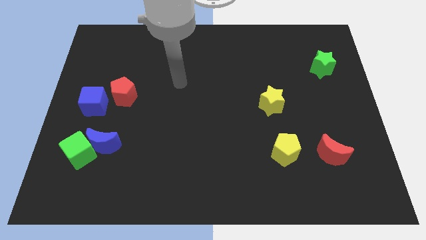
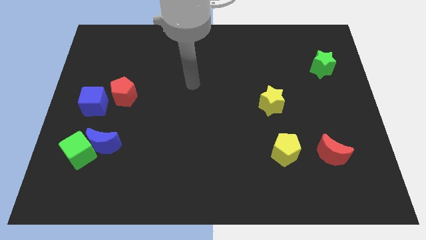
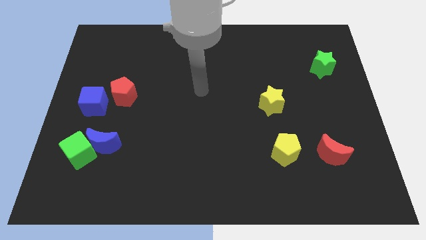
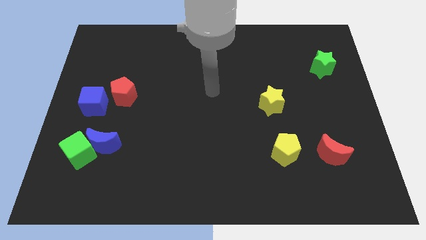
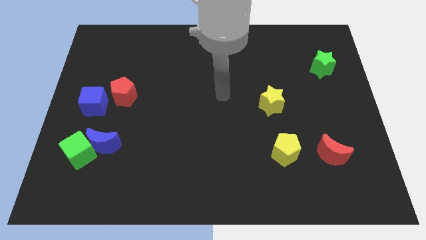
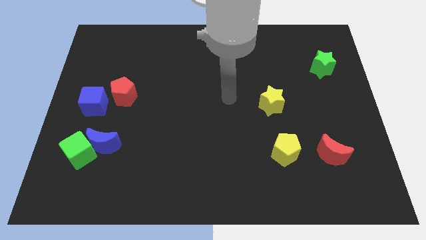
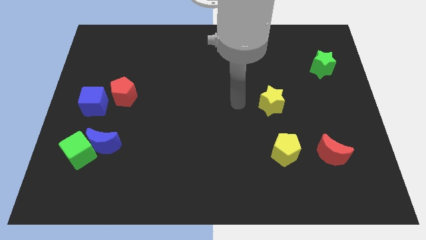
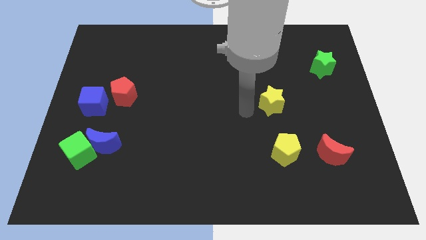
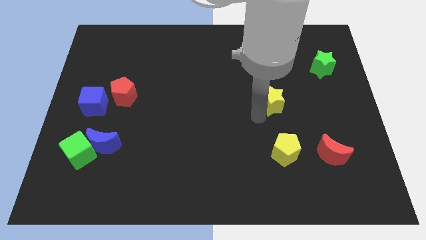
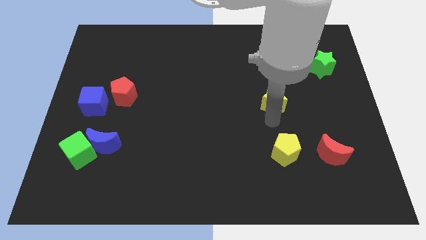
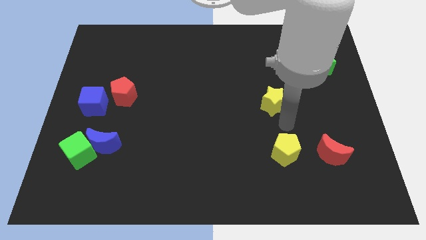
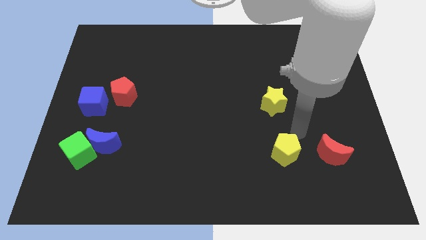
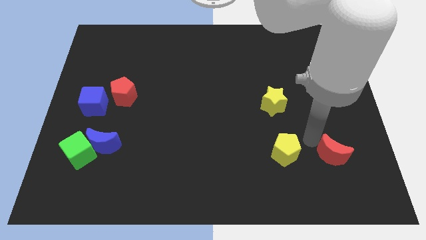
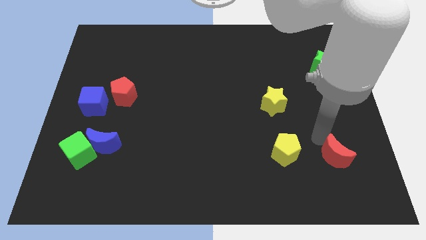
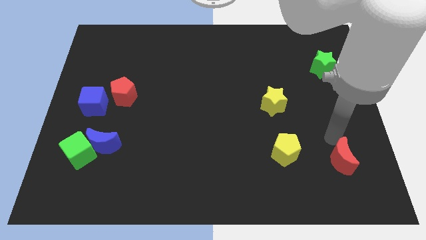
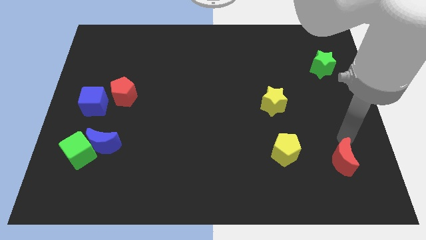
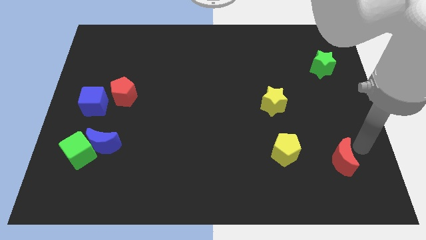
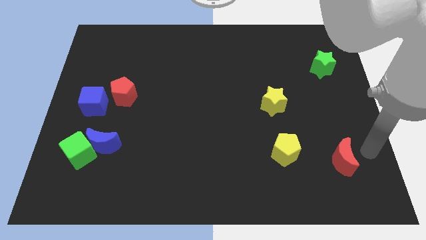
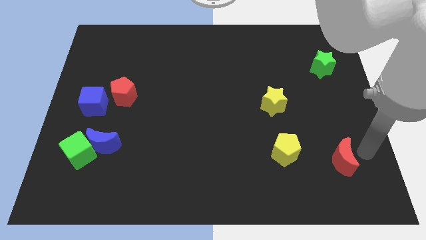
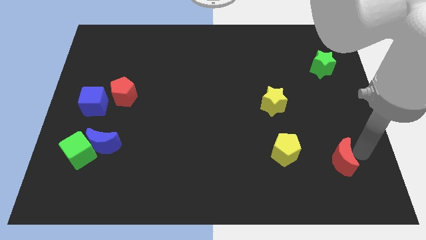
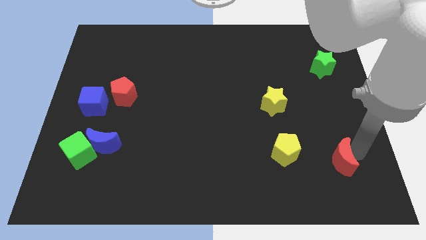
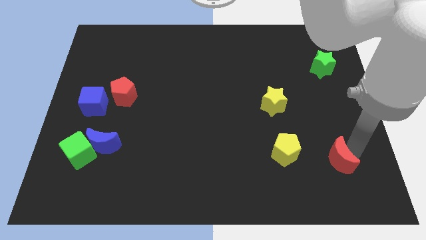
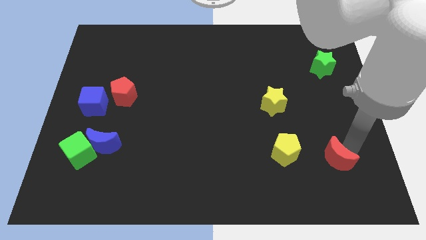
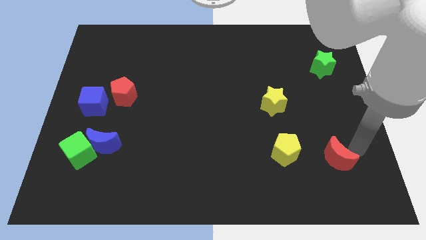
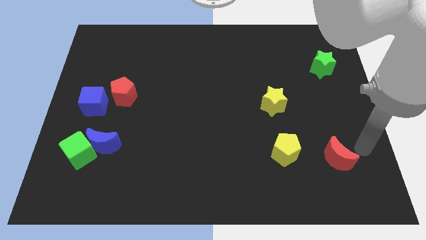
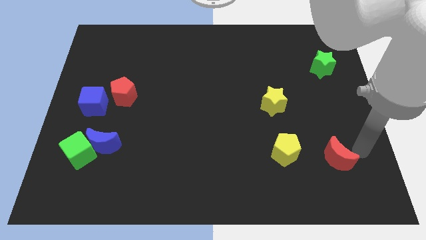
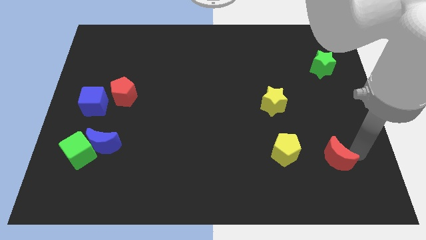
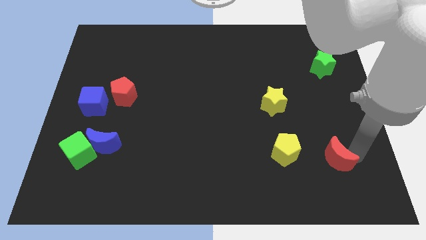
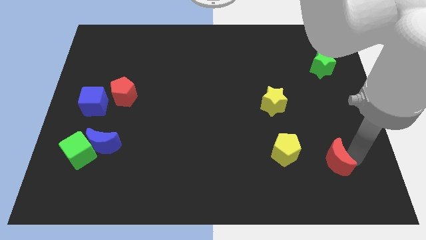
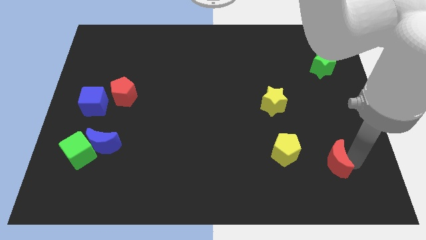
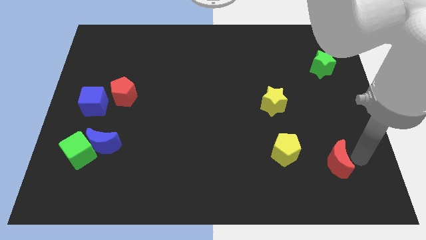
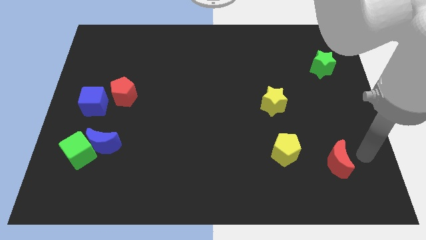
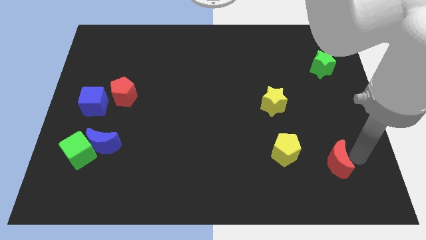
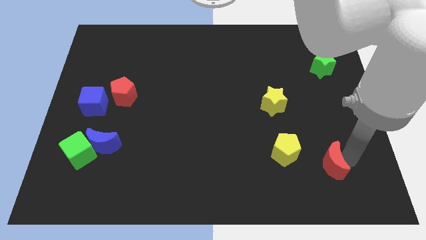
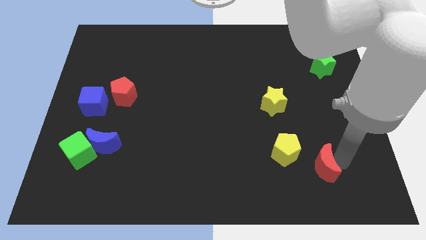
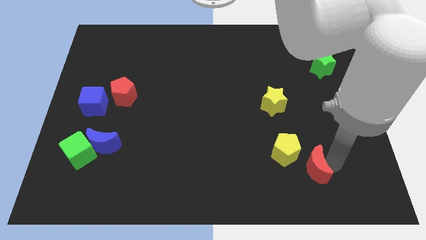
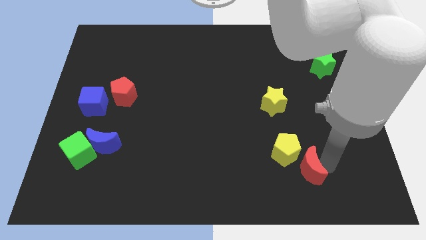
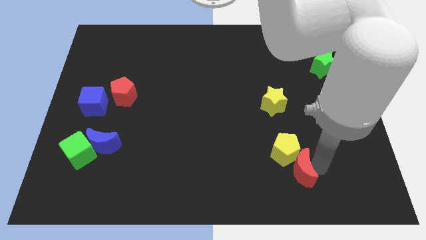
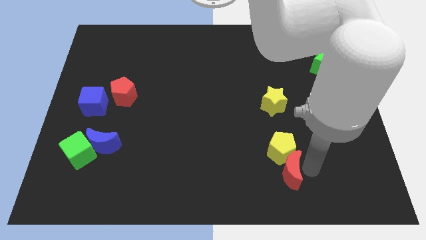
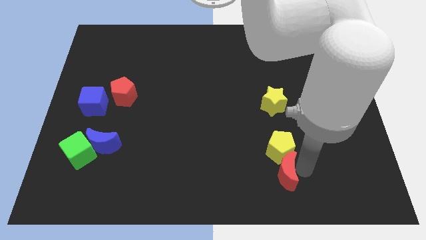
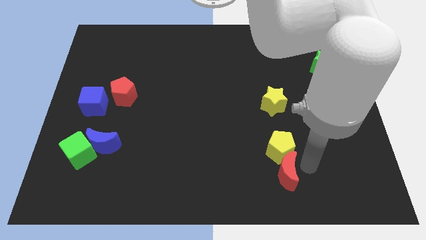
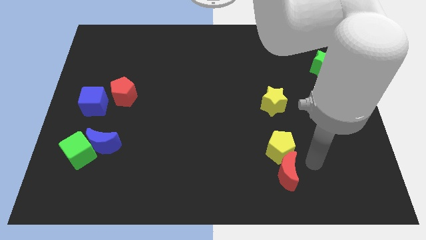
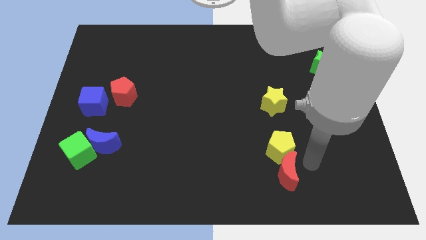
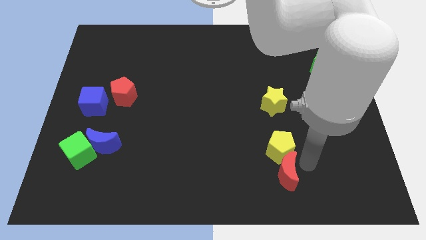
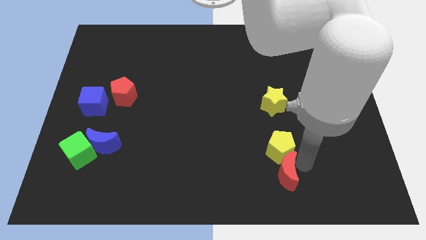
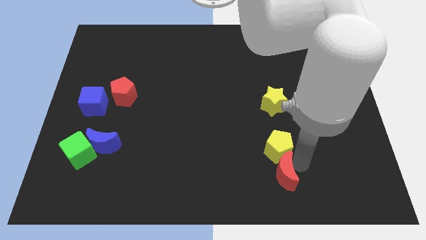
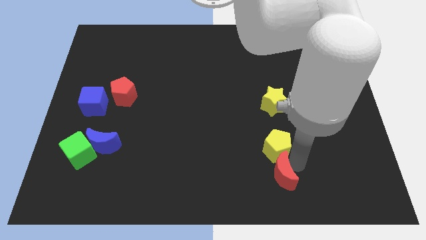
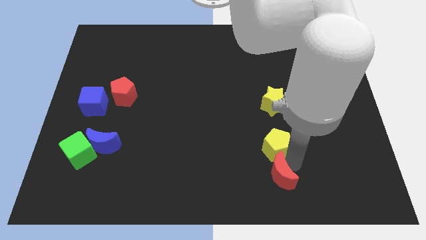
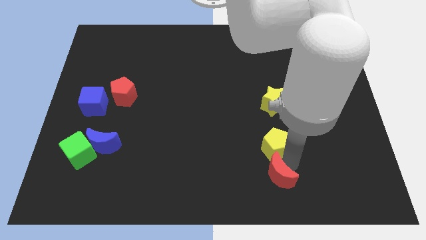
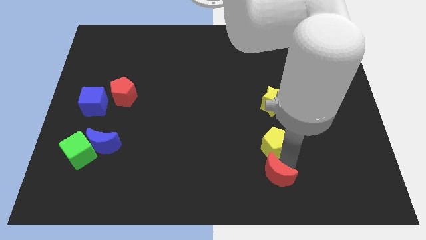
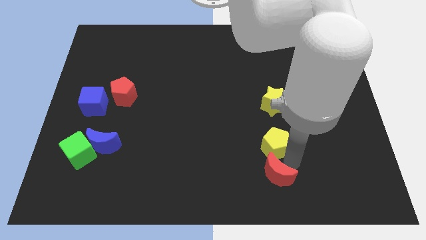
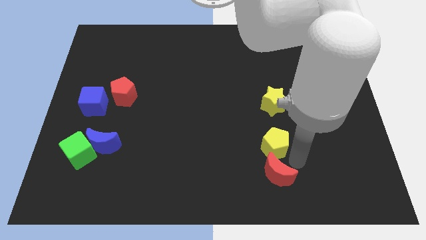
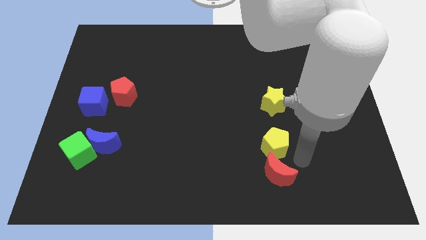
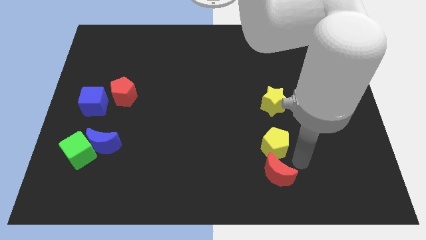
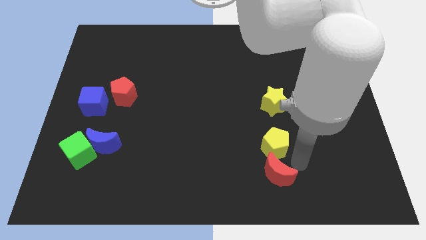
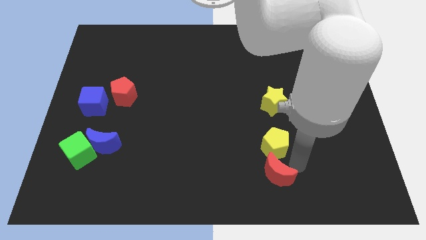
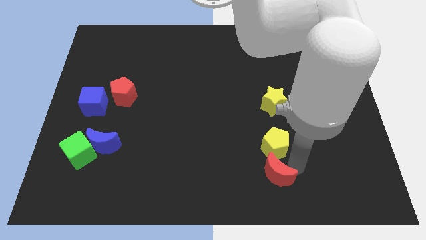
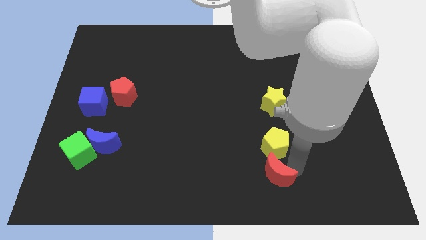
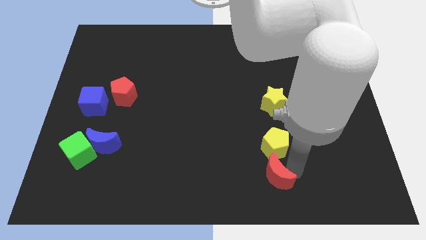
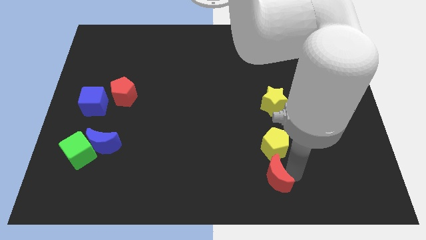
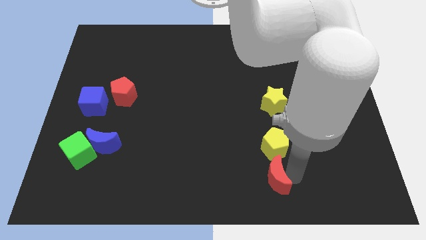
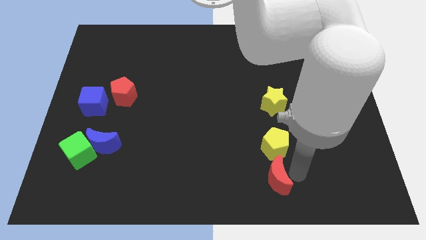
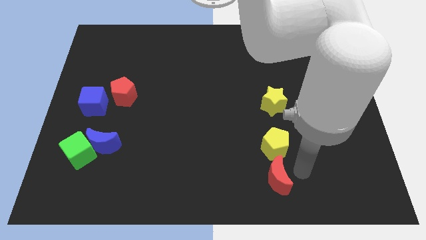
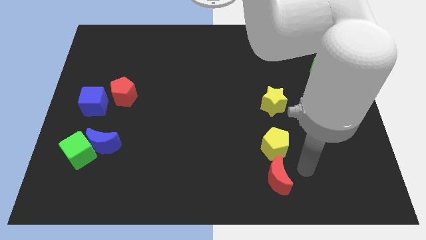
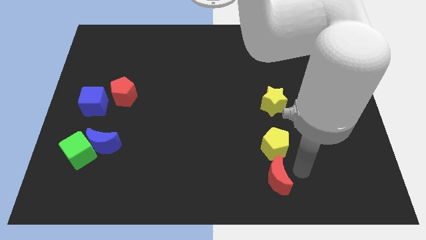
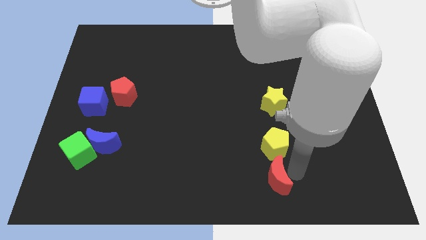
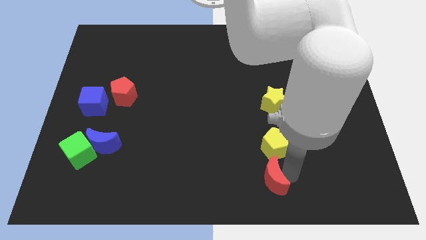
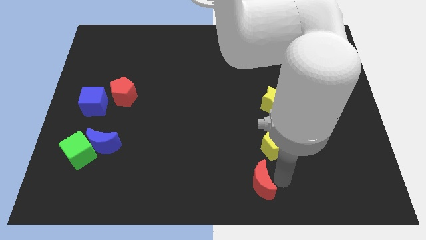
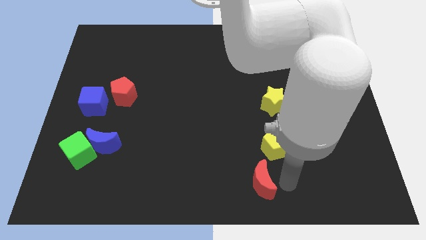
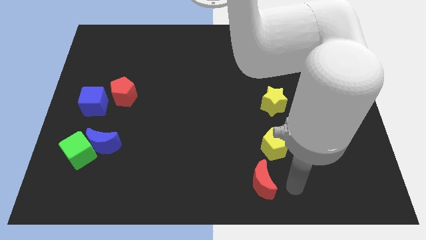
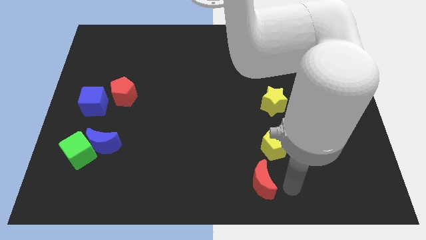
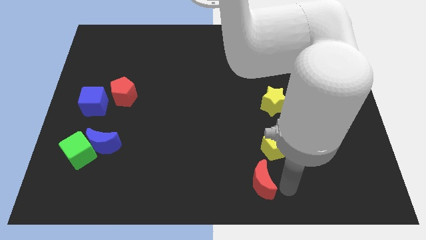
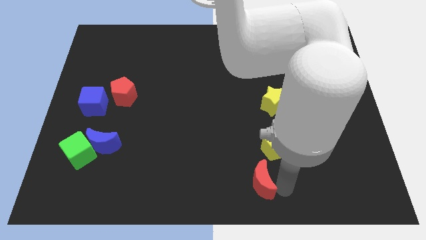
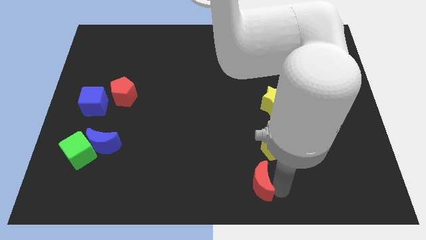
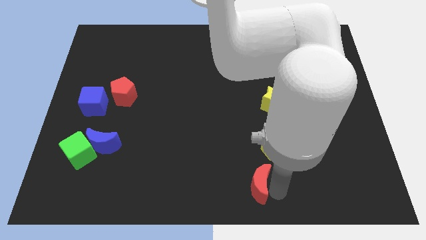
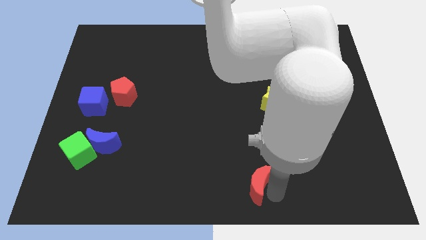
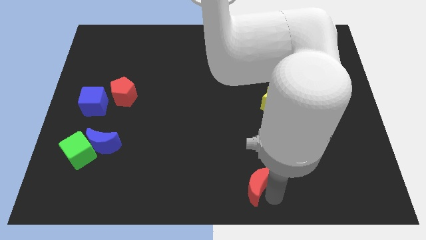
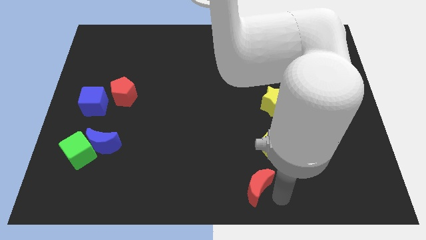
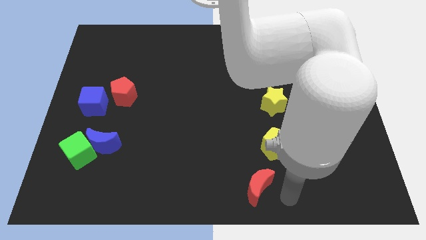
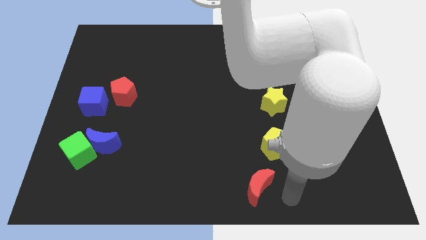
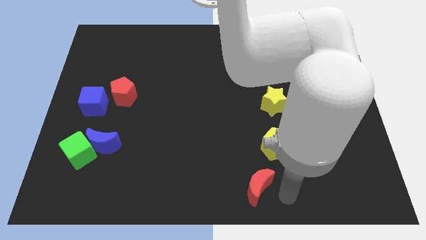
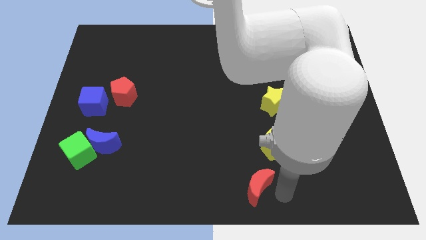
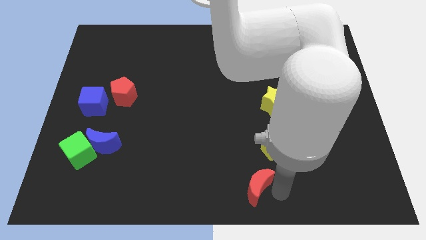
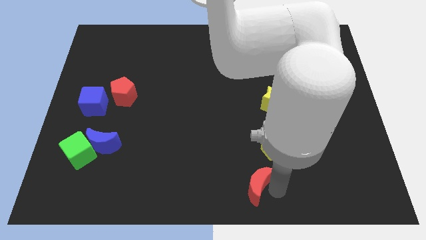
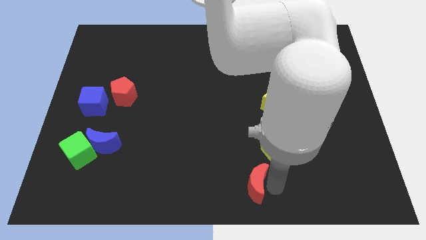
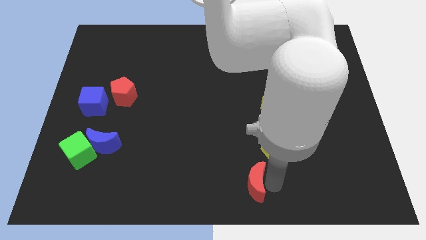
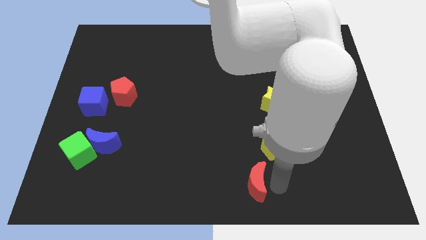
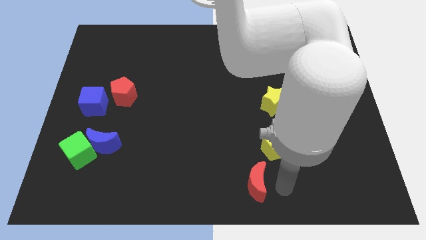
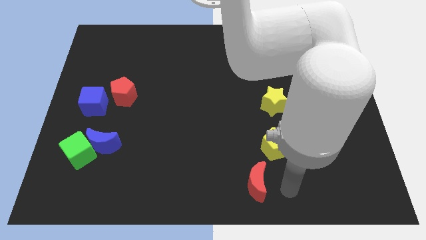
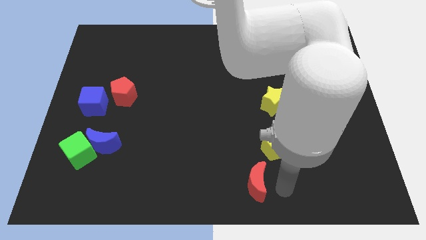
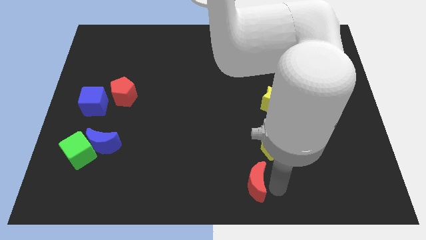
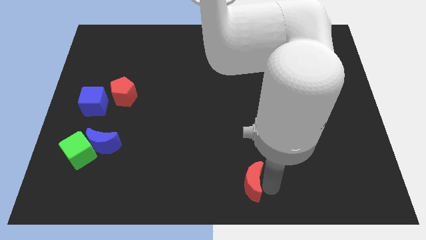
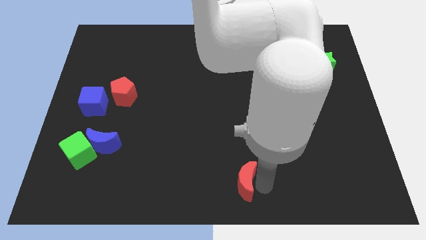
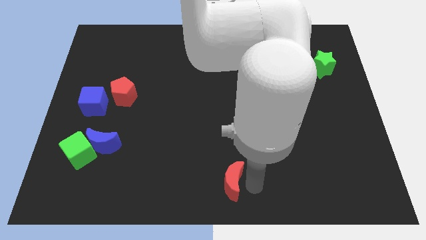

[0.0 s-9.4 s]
move the red moon to the left
